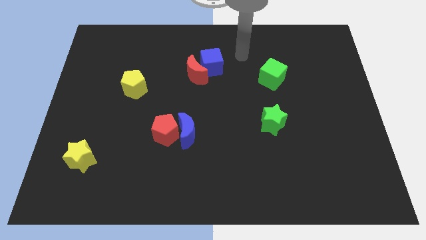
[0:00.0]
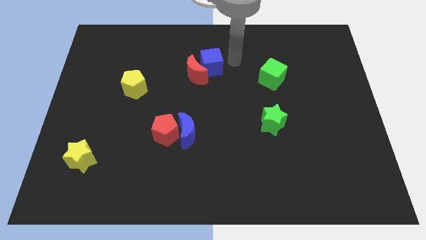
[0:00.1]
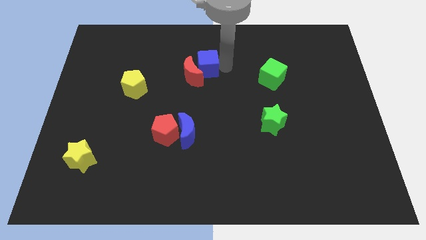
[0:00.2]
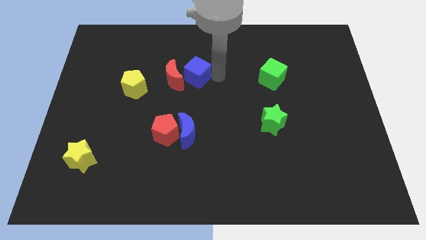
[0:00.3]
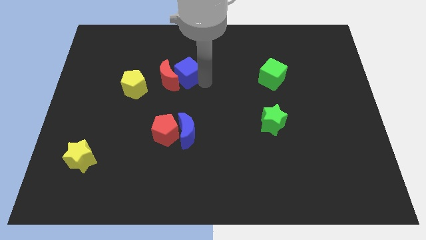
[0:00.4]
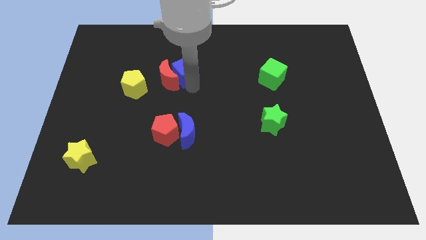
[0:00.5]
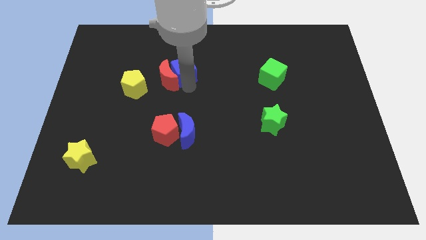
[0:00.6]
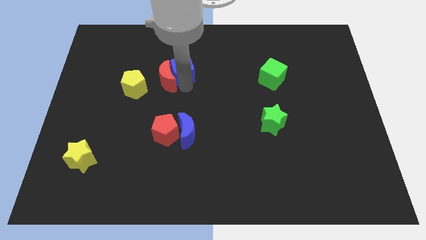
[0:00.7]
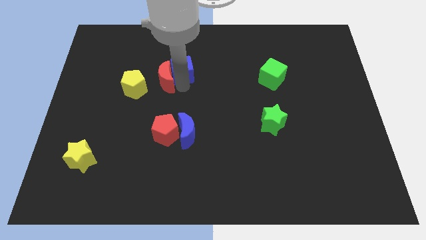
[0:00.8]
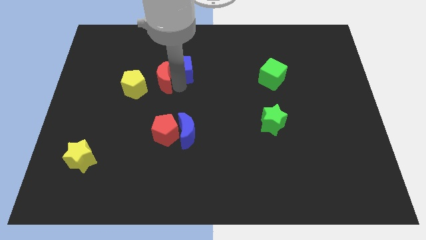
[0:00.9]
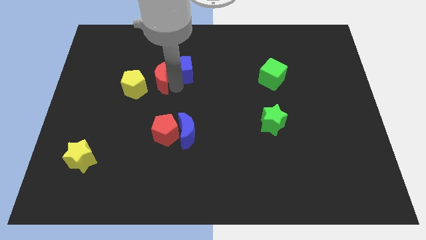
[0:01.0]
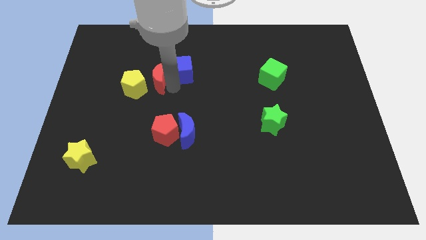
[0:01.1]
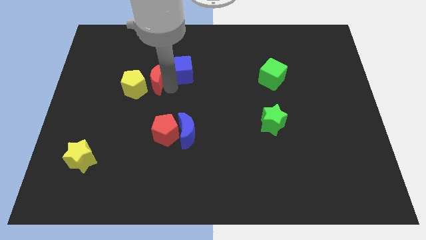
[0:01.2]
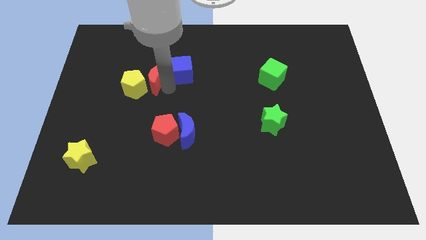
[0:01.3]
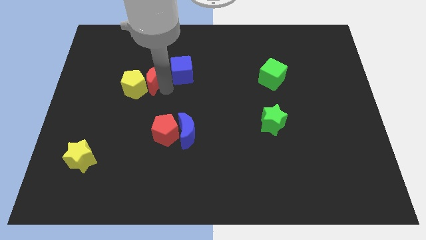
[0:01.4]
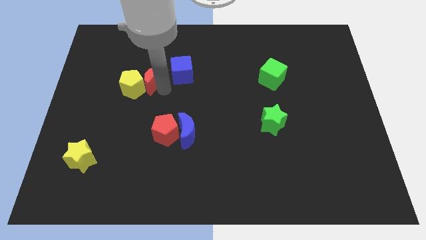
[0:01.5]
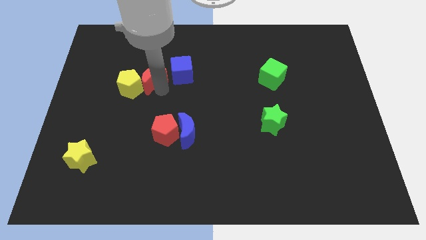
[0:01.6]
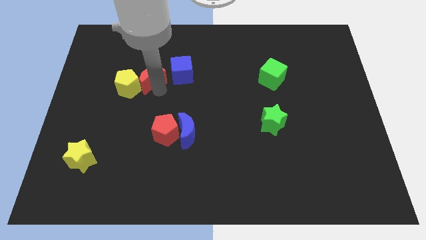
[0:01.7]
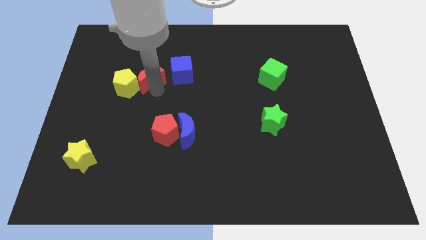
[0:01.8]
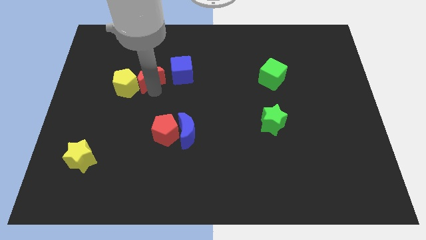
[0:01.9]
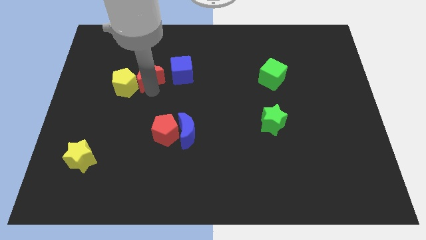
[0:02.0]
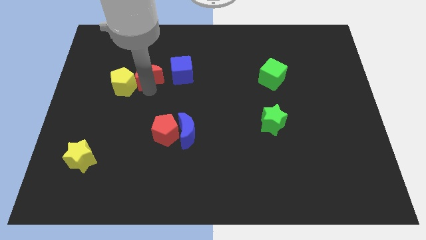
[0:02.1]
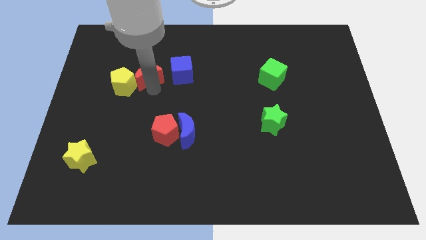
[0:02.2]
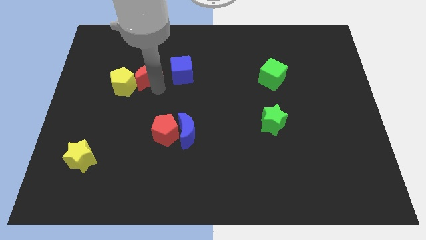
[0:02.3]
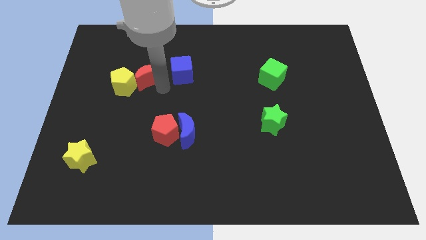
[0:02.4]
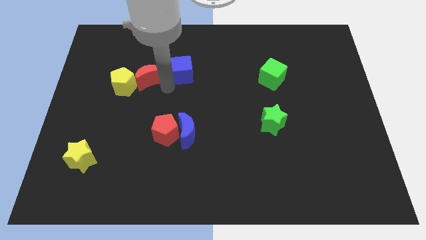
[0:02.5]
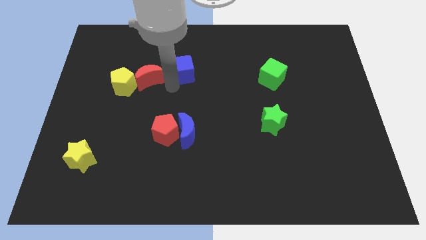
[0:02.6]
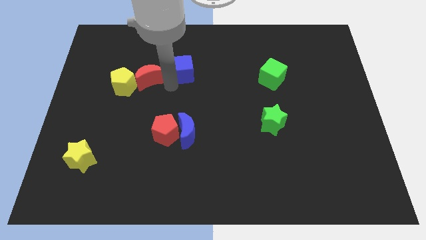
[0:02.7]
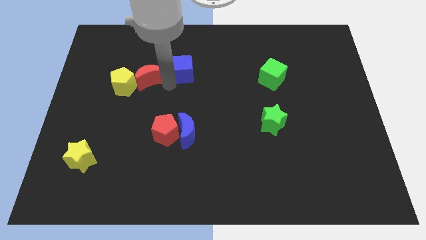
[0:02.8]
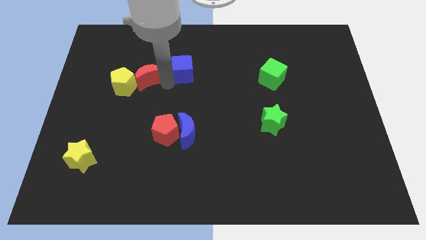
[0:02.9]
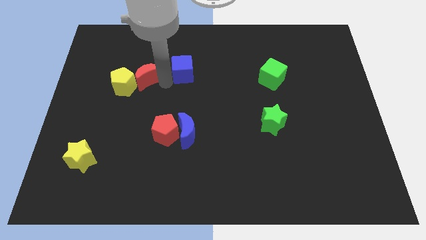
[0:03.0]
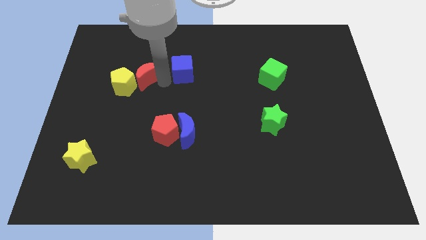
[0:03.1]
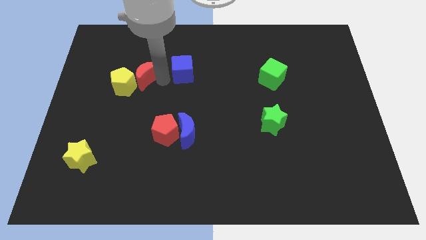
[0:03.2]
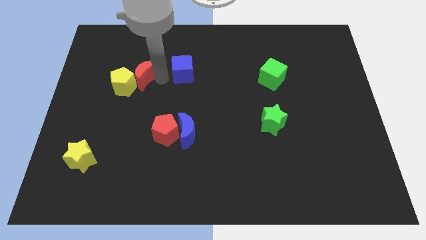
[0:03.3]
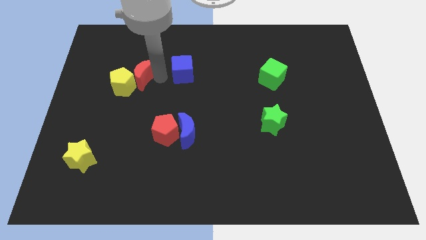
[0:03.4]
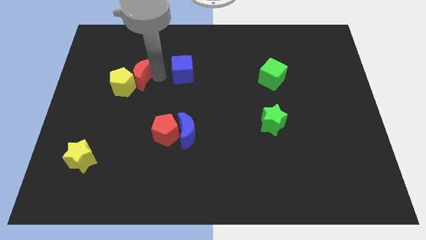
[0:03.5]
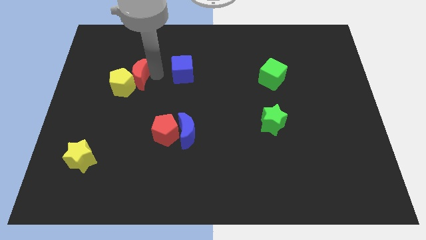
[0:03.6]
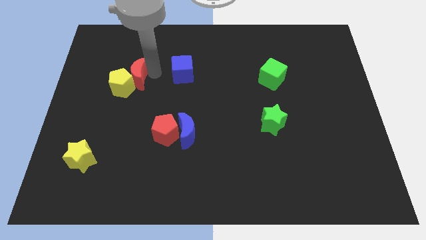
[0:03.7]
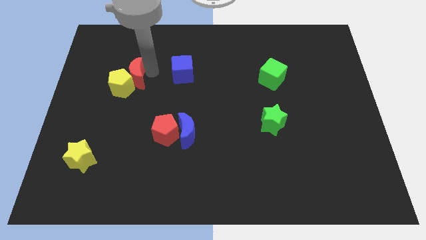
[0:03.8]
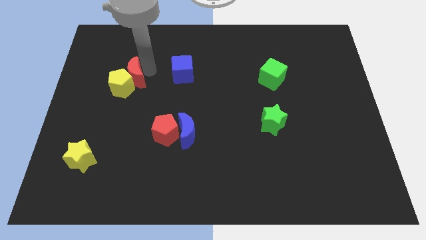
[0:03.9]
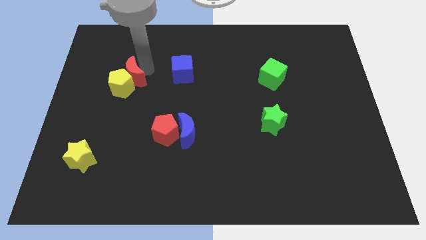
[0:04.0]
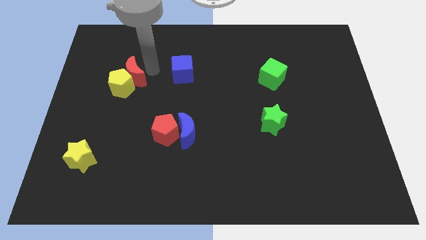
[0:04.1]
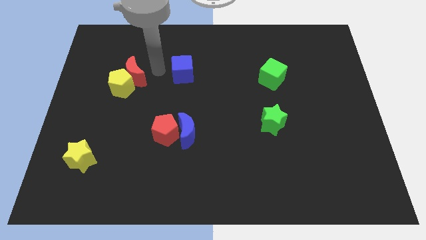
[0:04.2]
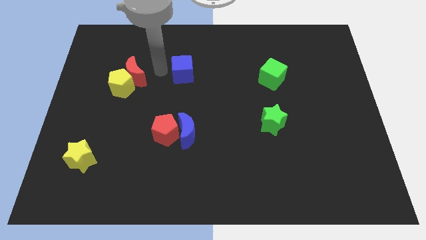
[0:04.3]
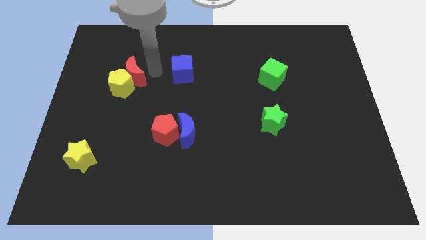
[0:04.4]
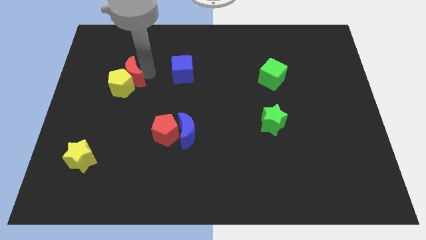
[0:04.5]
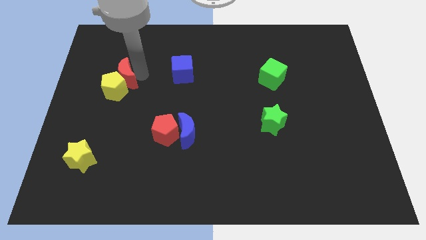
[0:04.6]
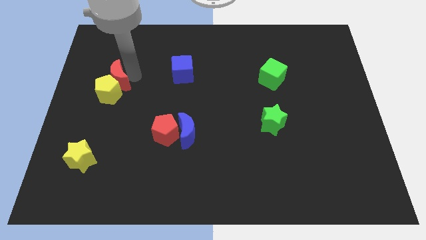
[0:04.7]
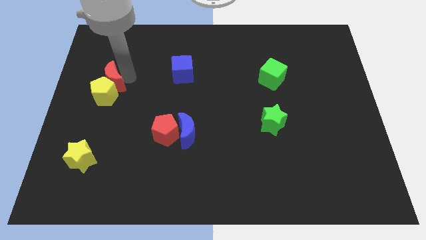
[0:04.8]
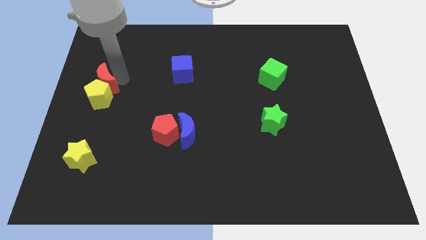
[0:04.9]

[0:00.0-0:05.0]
slide the red moon to the center left

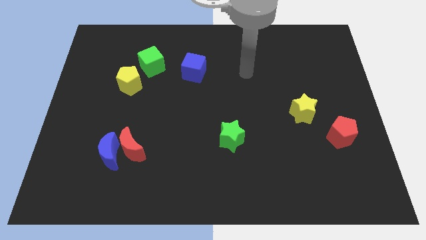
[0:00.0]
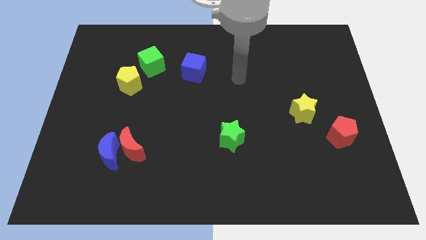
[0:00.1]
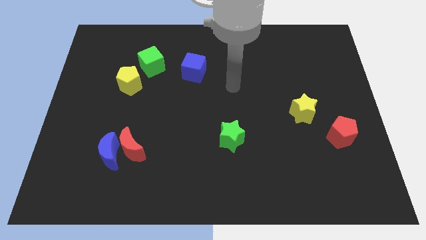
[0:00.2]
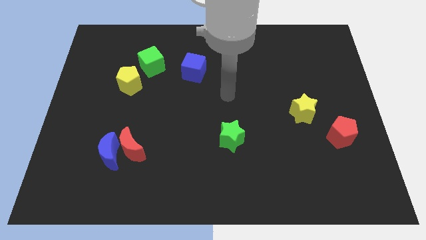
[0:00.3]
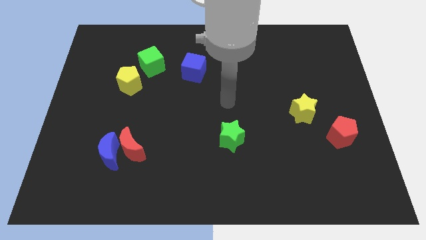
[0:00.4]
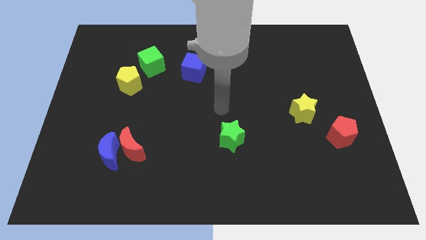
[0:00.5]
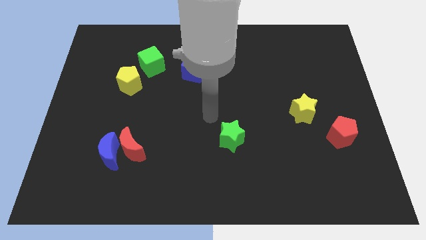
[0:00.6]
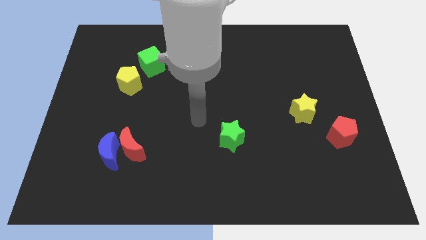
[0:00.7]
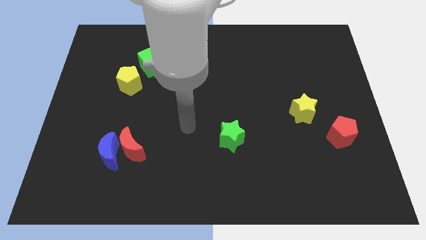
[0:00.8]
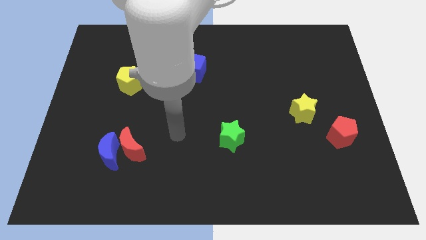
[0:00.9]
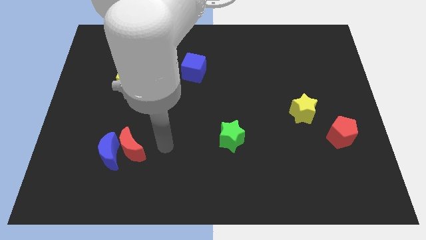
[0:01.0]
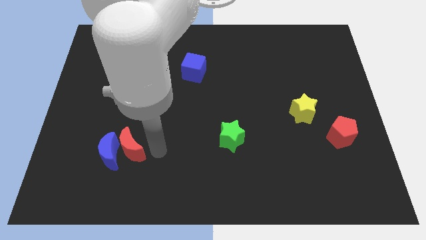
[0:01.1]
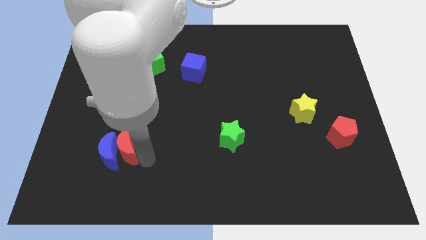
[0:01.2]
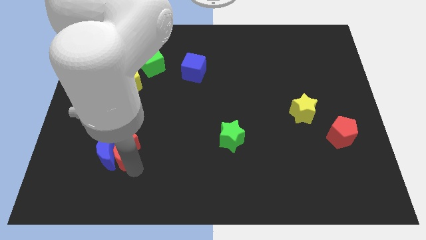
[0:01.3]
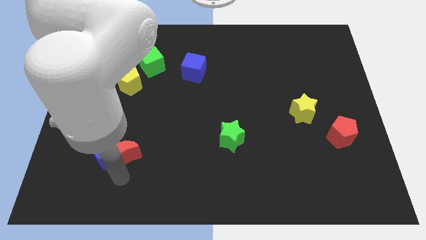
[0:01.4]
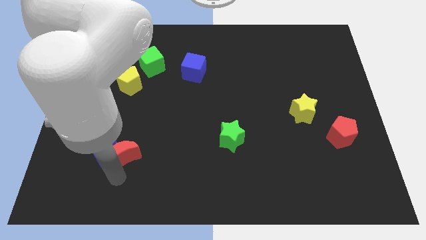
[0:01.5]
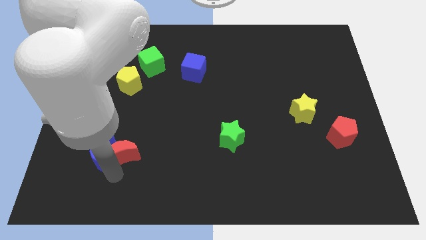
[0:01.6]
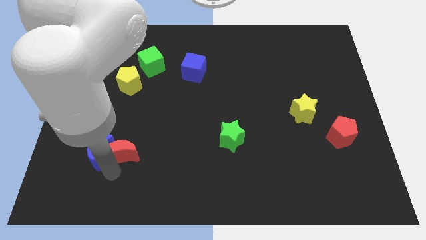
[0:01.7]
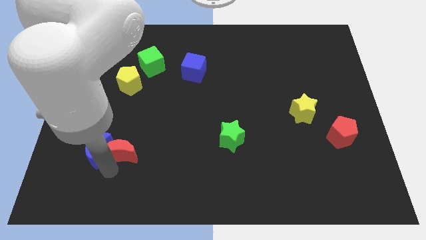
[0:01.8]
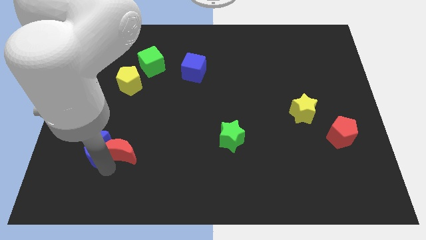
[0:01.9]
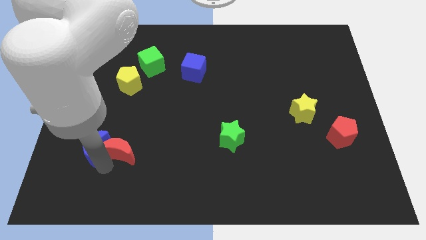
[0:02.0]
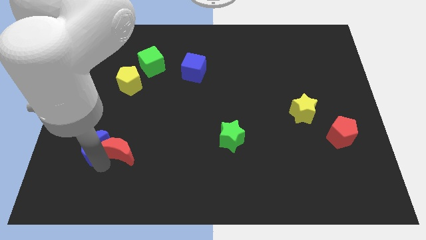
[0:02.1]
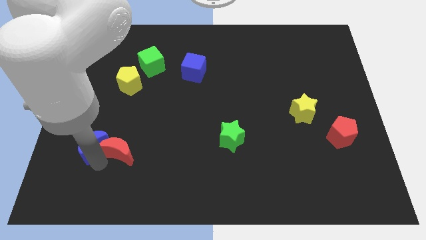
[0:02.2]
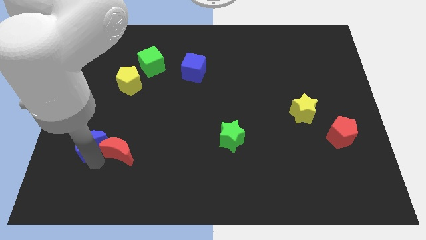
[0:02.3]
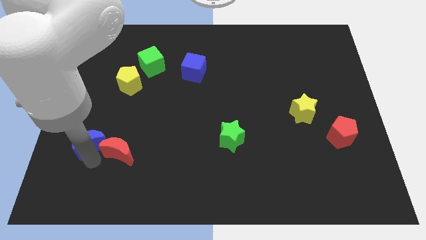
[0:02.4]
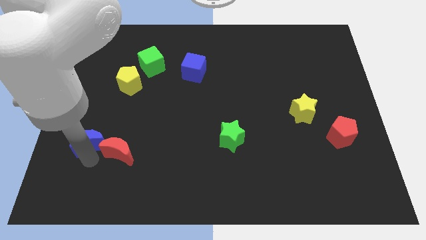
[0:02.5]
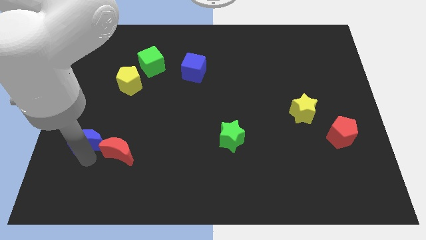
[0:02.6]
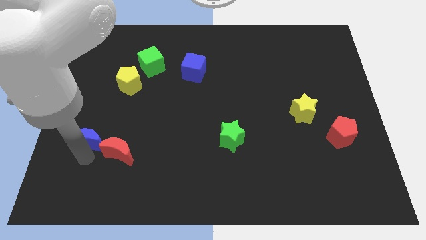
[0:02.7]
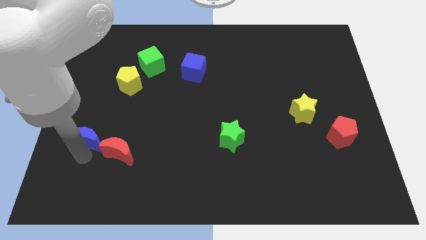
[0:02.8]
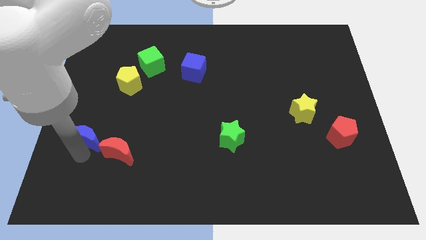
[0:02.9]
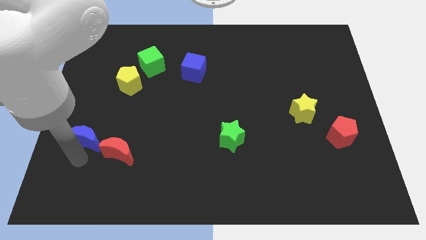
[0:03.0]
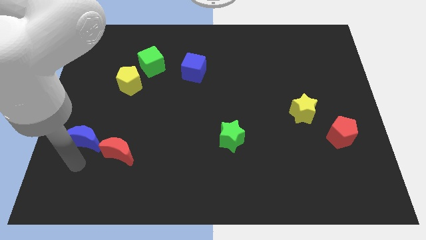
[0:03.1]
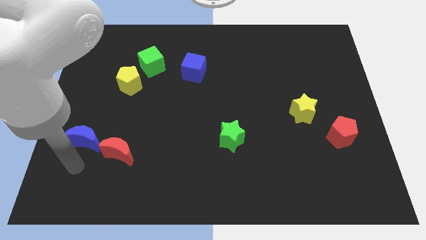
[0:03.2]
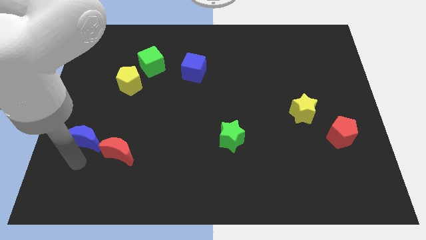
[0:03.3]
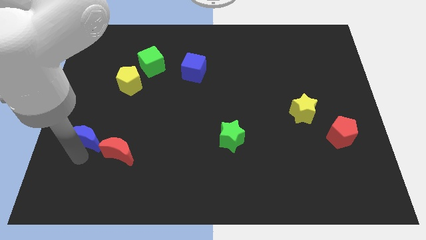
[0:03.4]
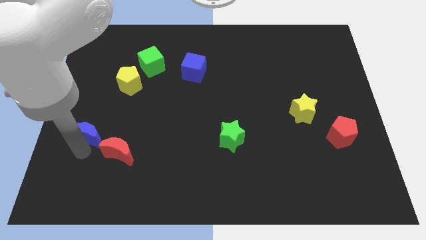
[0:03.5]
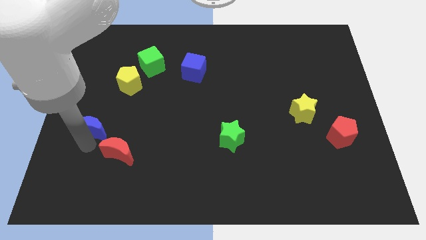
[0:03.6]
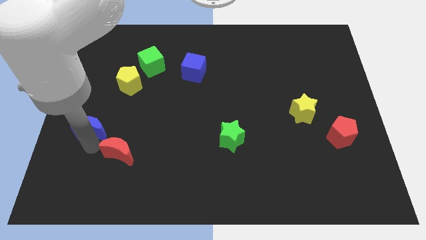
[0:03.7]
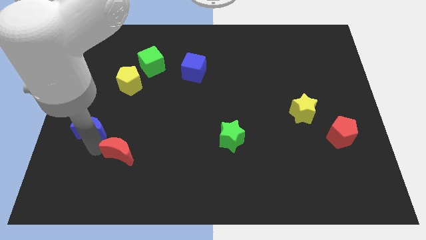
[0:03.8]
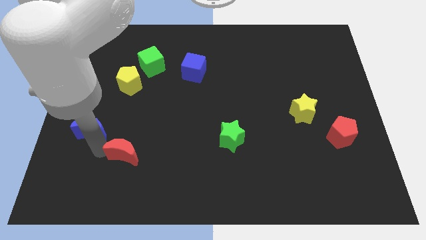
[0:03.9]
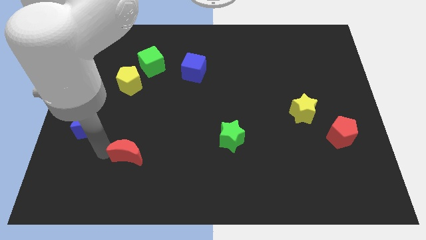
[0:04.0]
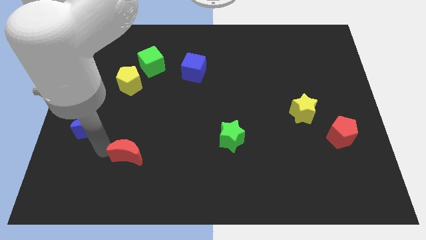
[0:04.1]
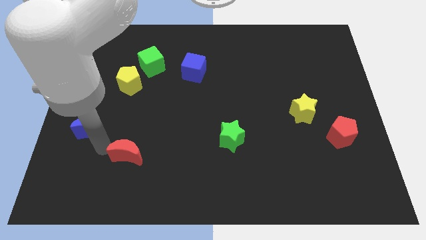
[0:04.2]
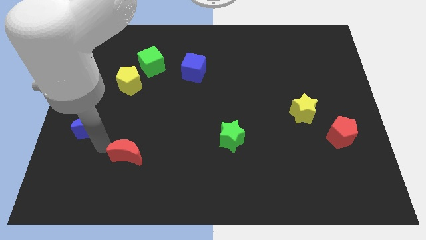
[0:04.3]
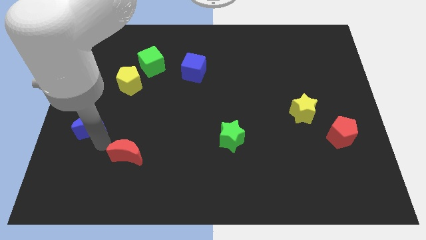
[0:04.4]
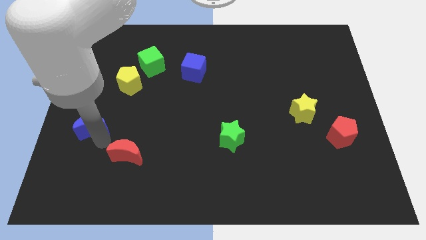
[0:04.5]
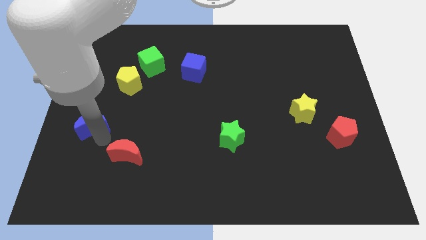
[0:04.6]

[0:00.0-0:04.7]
move the blue moon to the left side of the board
